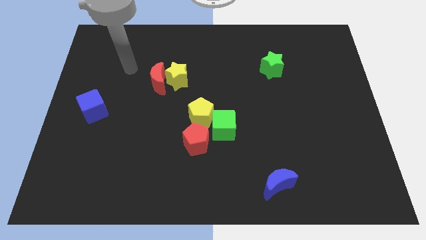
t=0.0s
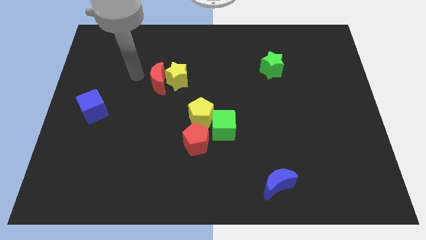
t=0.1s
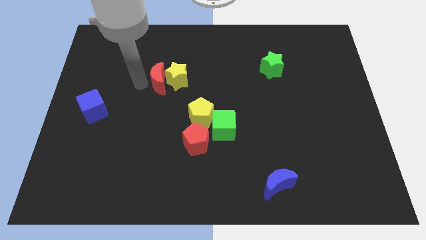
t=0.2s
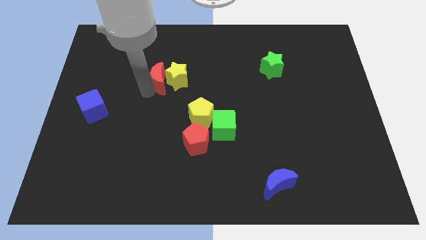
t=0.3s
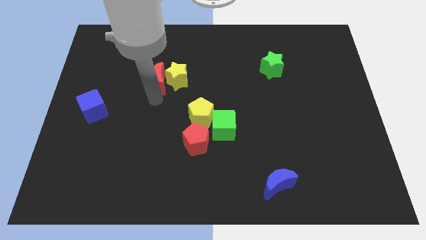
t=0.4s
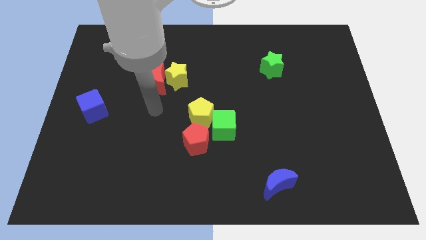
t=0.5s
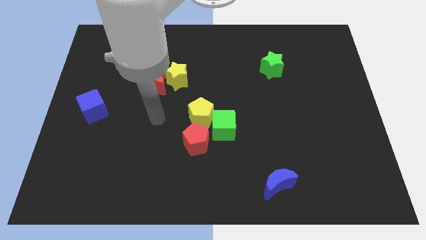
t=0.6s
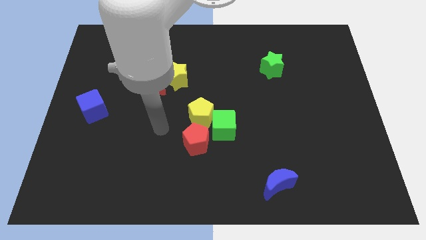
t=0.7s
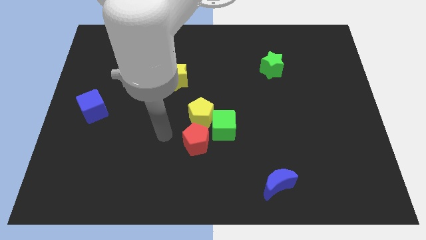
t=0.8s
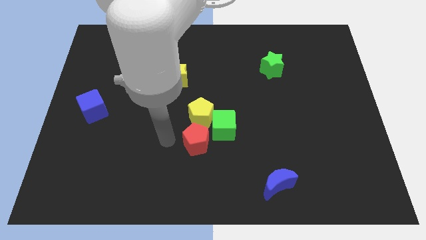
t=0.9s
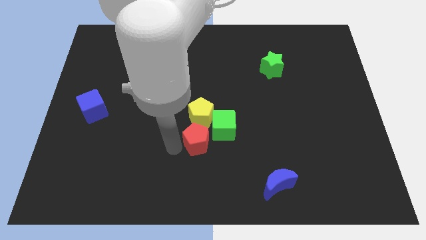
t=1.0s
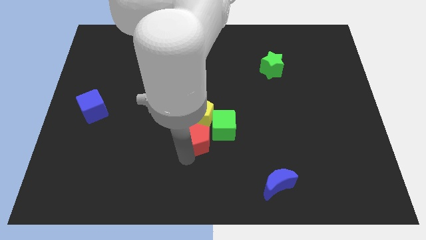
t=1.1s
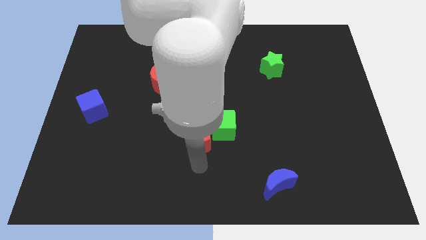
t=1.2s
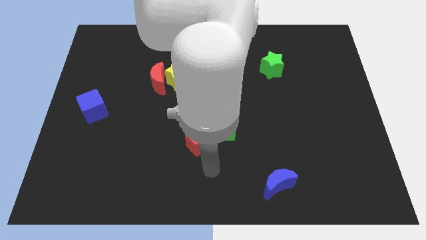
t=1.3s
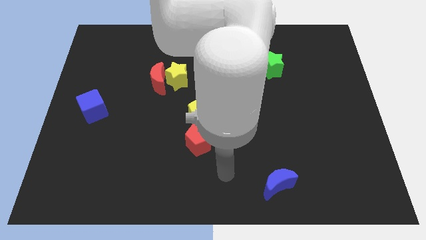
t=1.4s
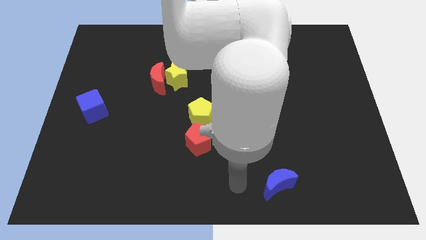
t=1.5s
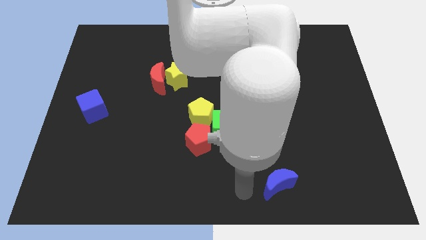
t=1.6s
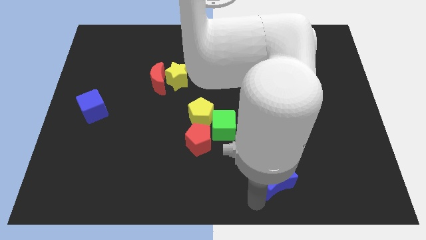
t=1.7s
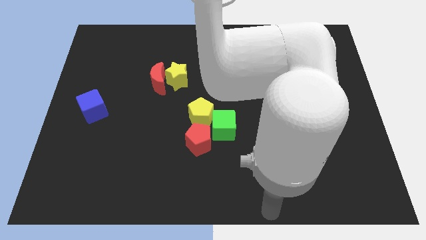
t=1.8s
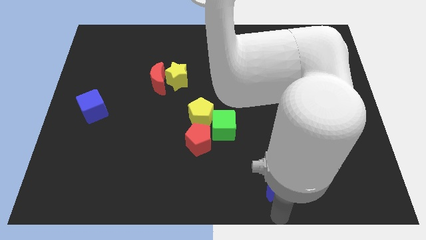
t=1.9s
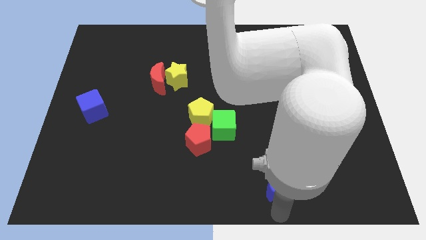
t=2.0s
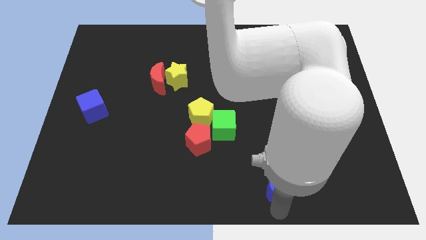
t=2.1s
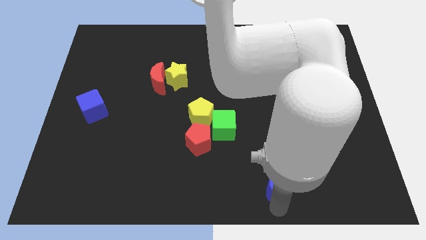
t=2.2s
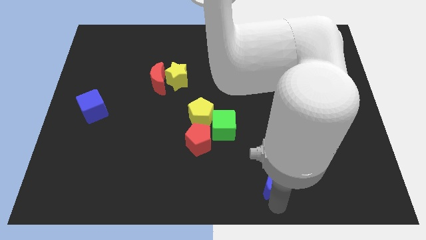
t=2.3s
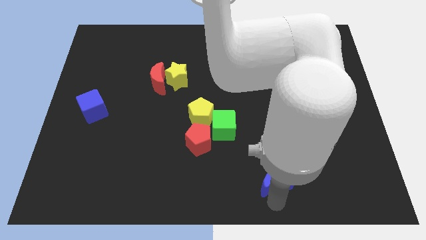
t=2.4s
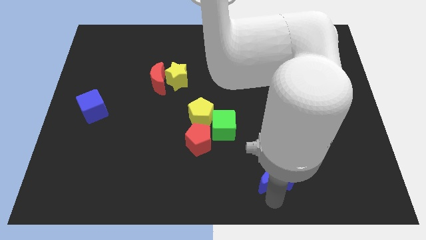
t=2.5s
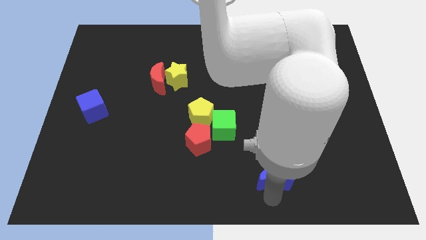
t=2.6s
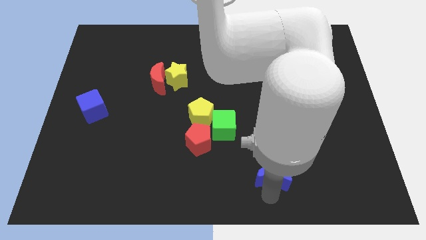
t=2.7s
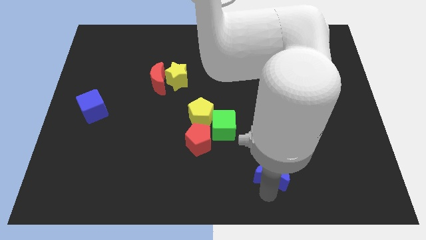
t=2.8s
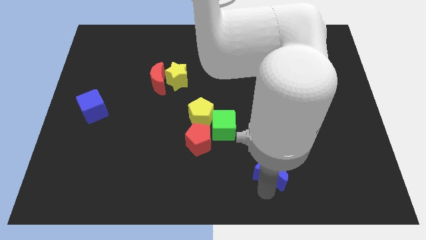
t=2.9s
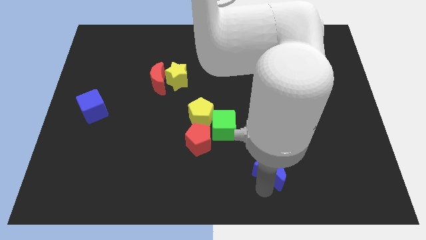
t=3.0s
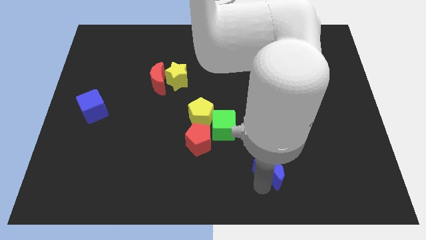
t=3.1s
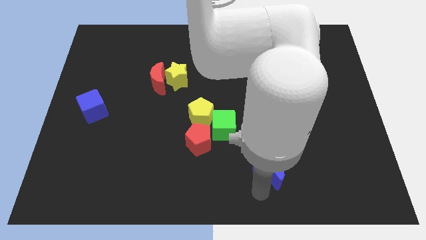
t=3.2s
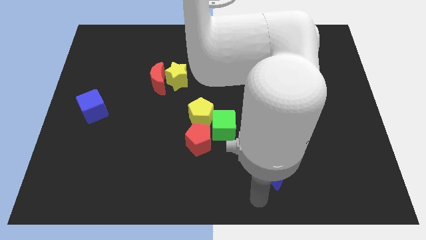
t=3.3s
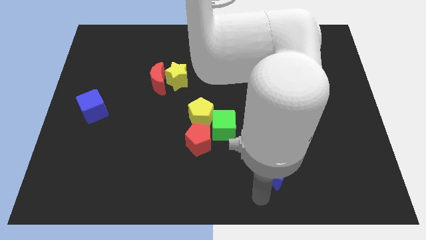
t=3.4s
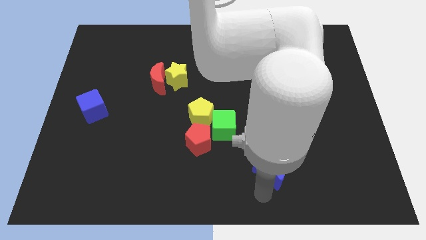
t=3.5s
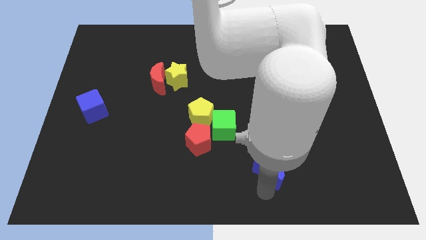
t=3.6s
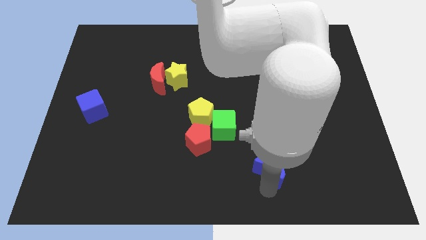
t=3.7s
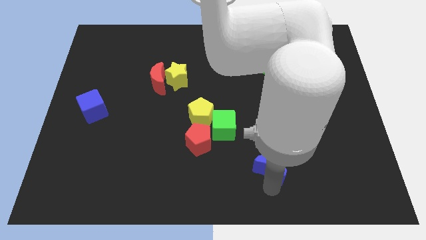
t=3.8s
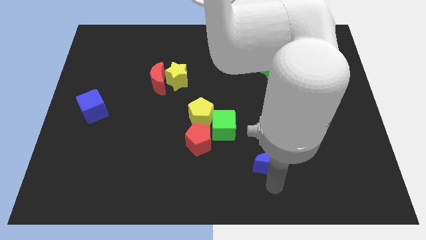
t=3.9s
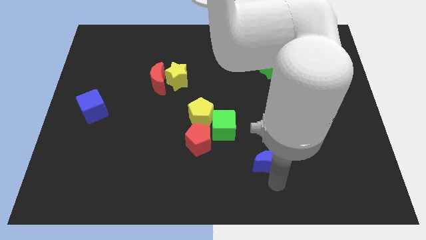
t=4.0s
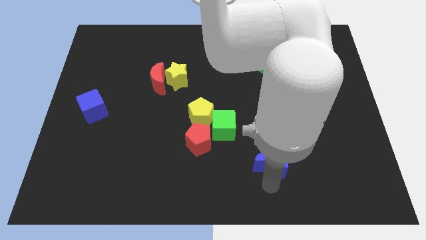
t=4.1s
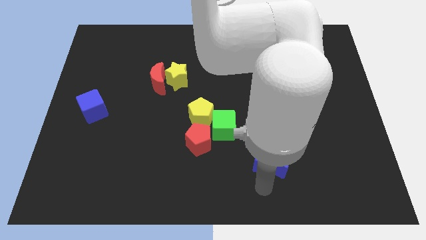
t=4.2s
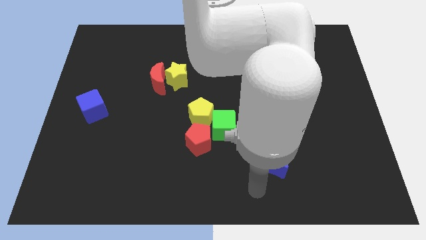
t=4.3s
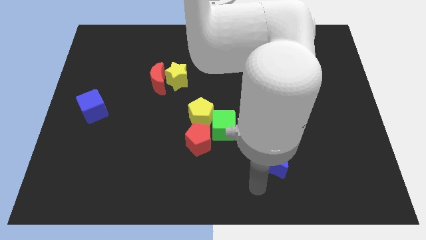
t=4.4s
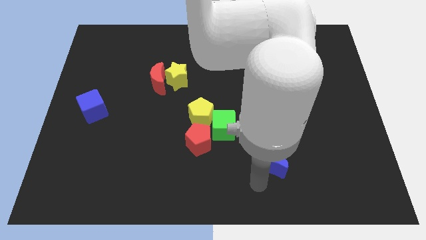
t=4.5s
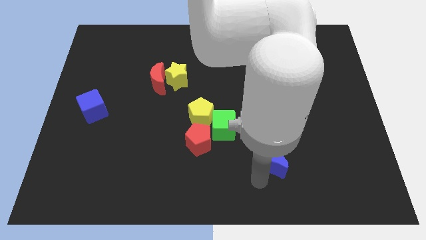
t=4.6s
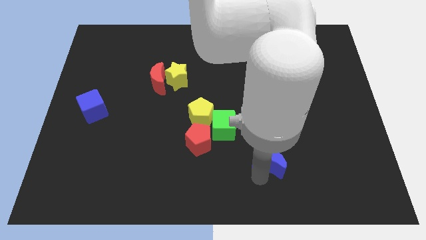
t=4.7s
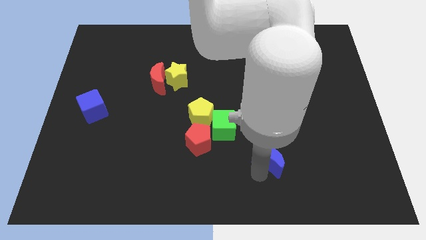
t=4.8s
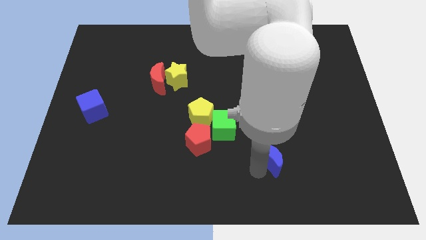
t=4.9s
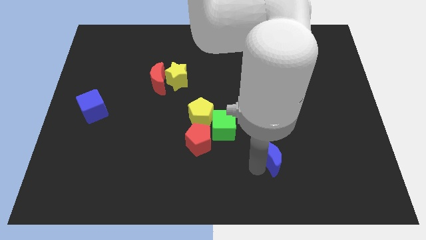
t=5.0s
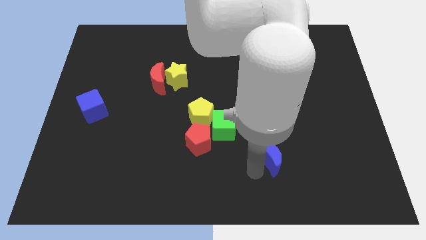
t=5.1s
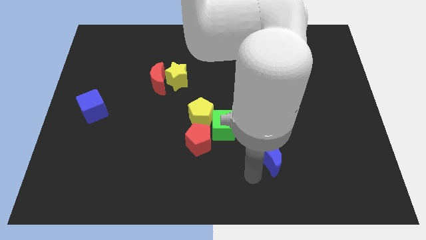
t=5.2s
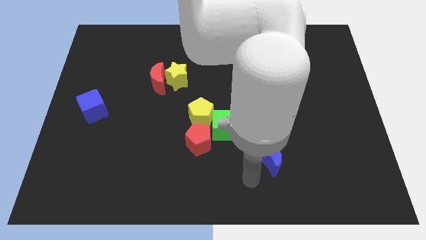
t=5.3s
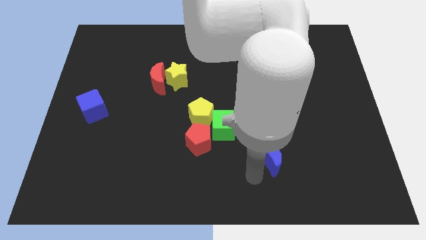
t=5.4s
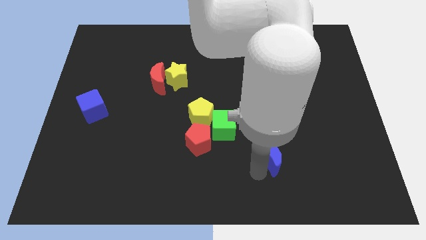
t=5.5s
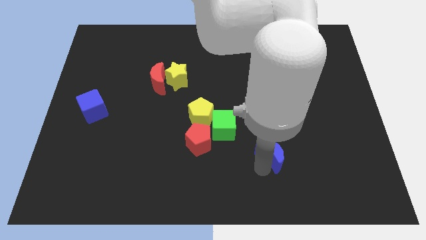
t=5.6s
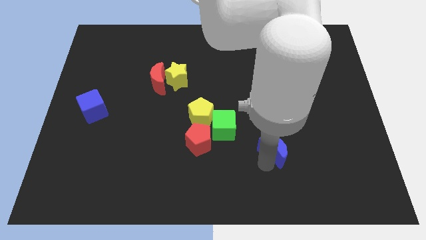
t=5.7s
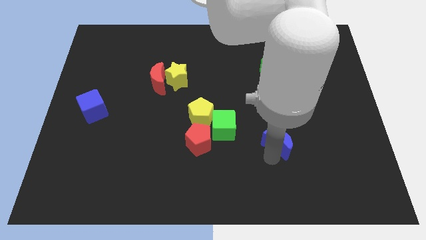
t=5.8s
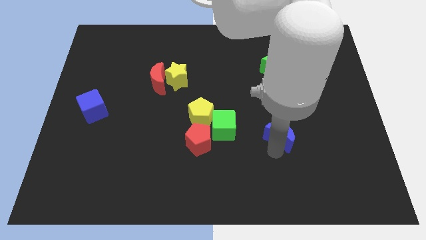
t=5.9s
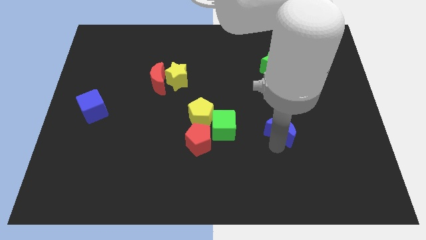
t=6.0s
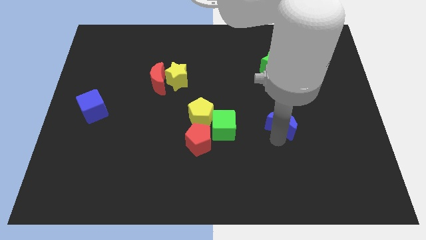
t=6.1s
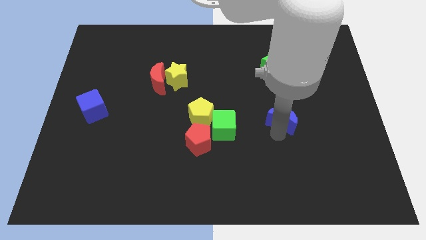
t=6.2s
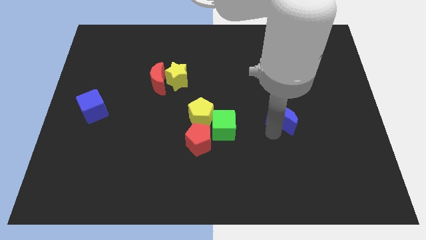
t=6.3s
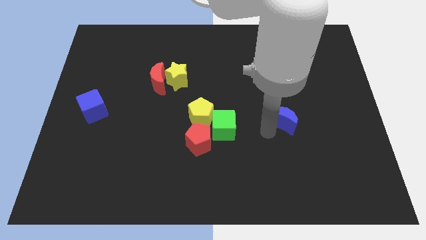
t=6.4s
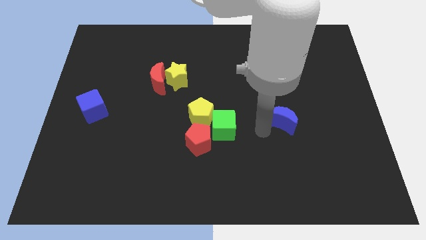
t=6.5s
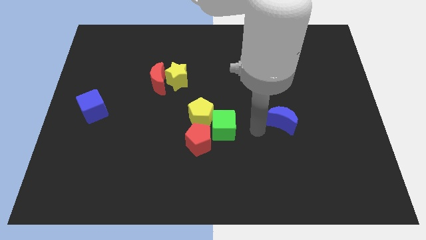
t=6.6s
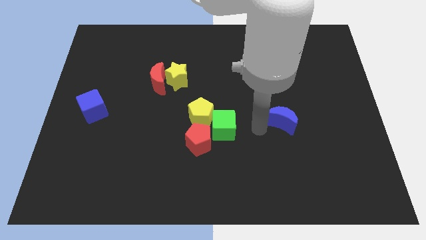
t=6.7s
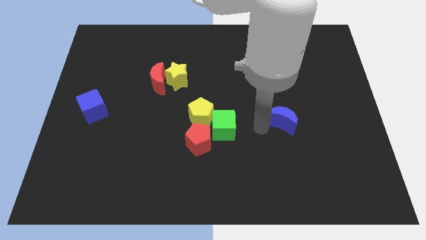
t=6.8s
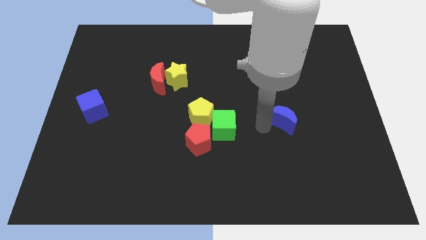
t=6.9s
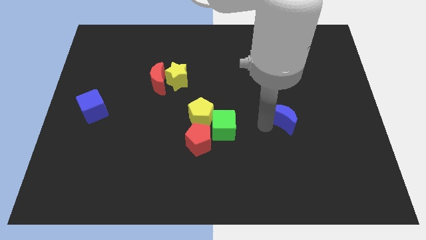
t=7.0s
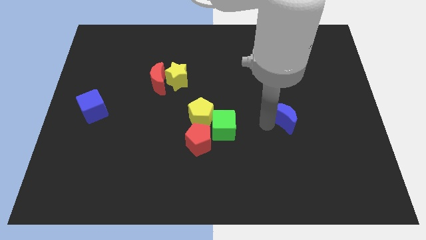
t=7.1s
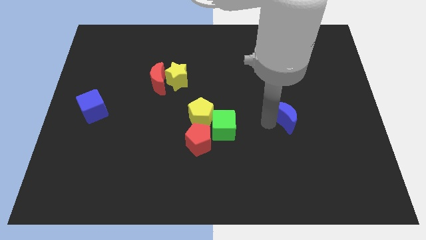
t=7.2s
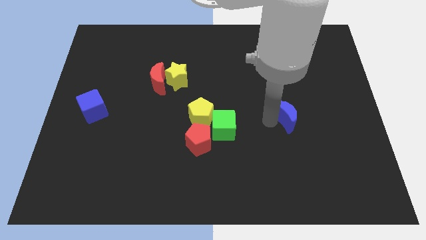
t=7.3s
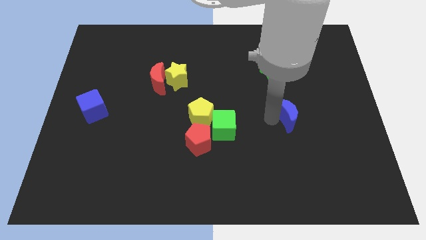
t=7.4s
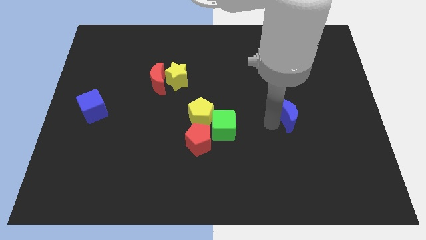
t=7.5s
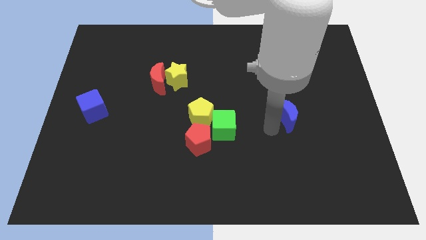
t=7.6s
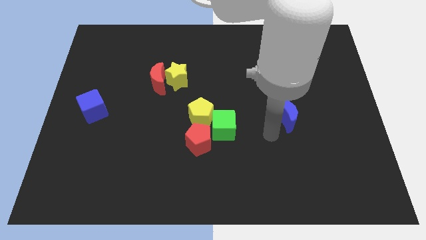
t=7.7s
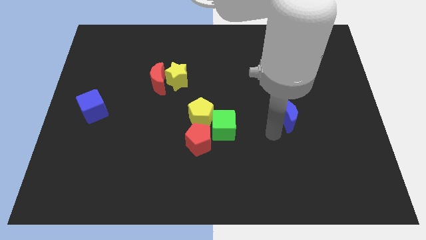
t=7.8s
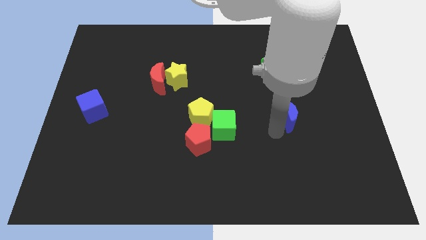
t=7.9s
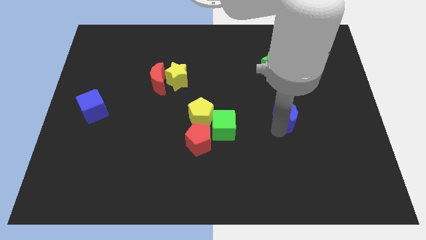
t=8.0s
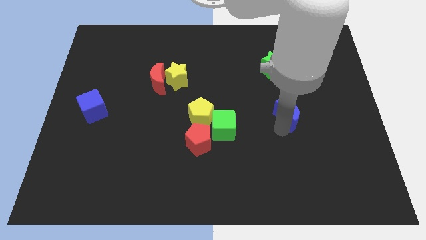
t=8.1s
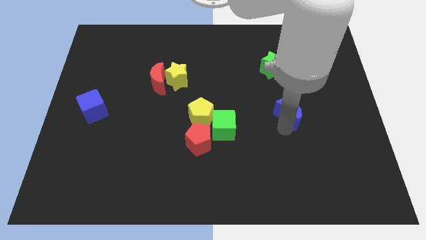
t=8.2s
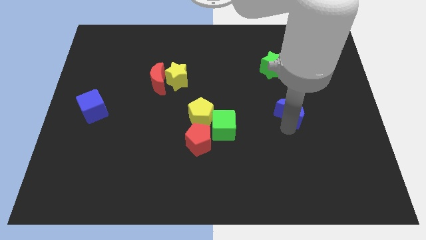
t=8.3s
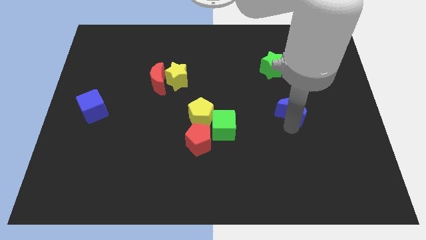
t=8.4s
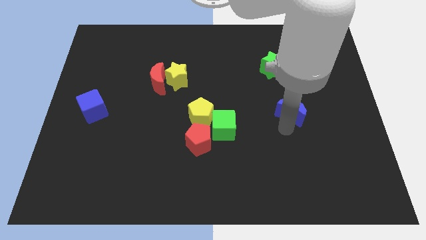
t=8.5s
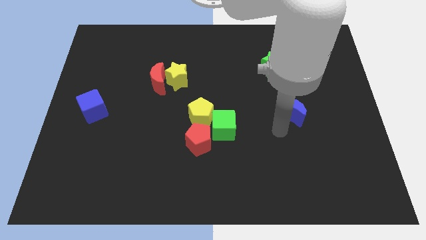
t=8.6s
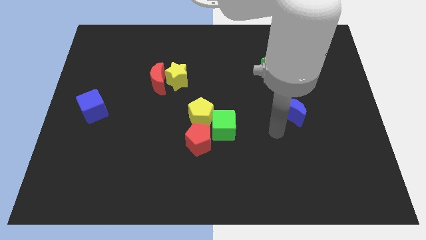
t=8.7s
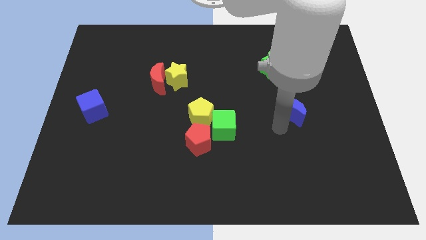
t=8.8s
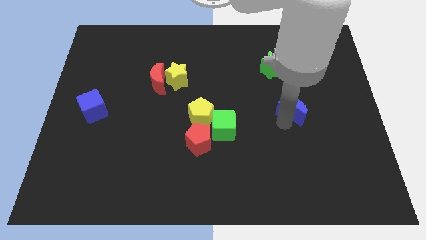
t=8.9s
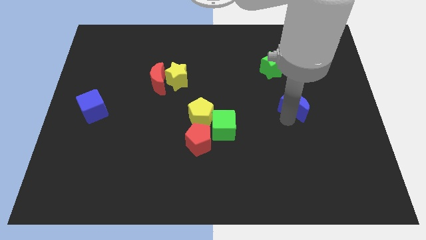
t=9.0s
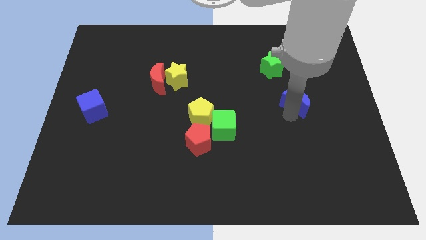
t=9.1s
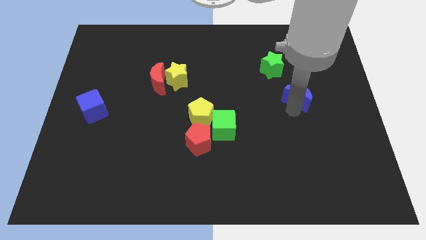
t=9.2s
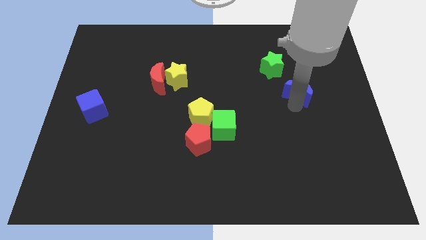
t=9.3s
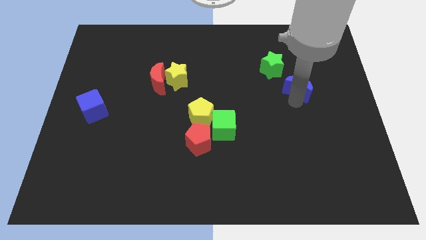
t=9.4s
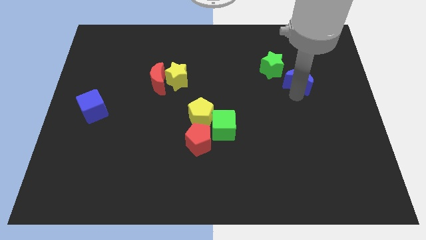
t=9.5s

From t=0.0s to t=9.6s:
push the blue moon to the right side of the green star
